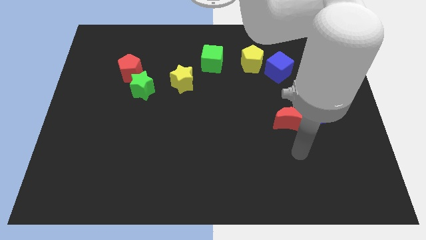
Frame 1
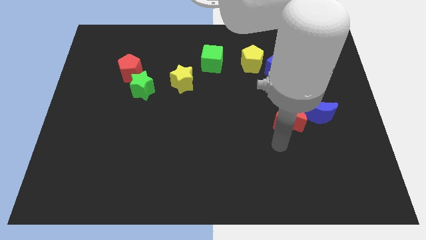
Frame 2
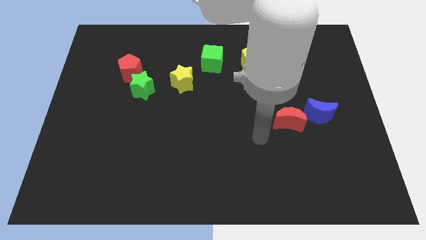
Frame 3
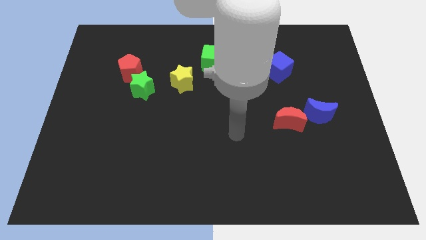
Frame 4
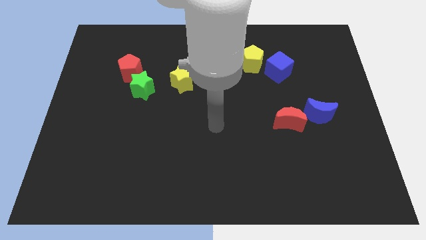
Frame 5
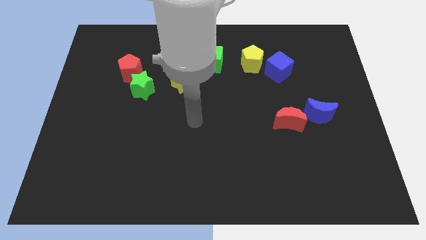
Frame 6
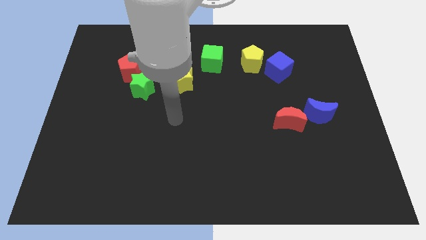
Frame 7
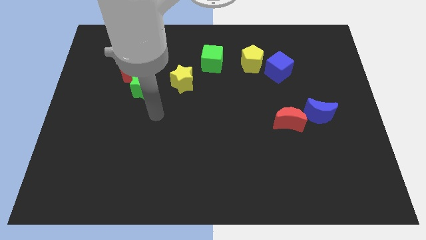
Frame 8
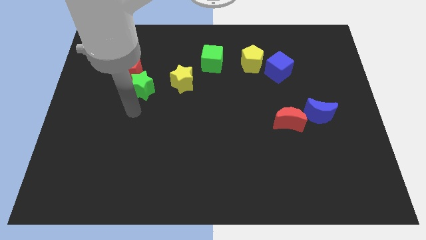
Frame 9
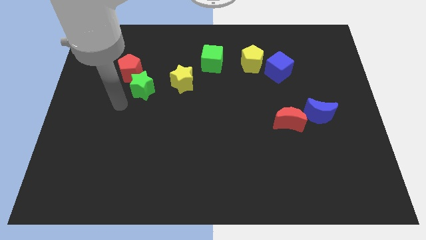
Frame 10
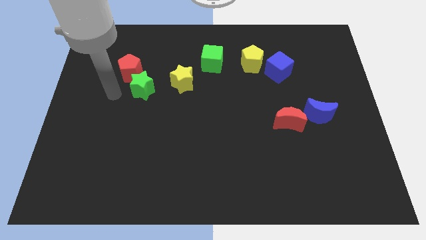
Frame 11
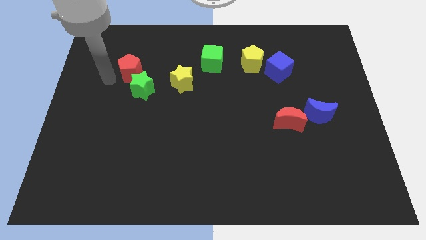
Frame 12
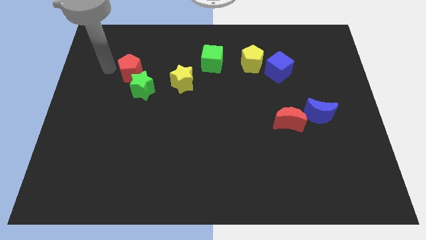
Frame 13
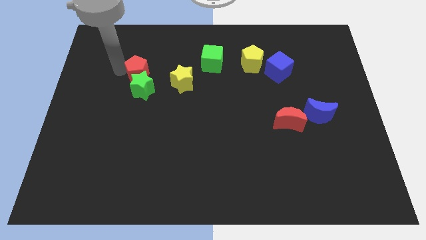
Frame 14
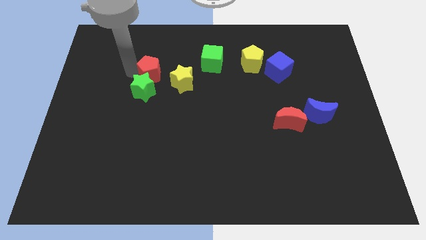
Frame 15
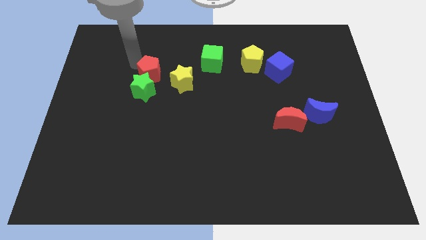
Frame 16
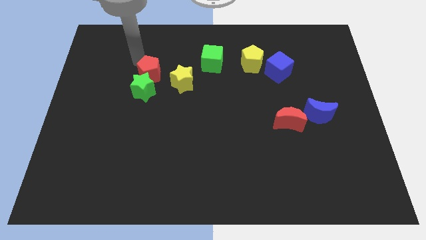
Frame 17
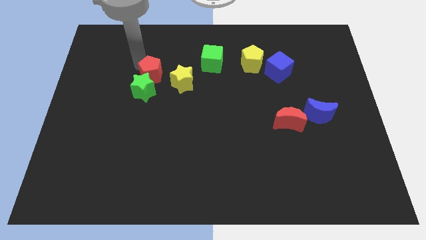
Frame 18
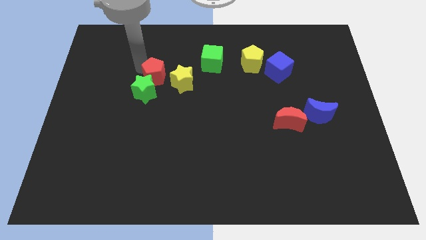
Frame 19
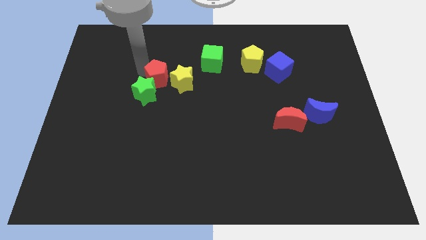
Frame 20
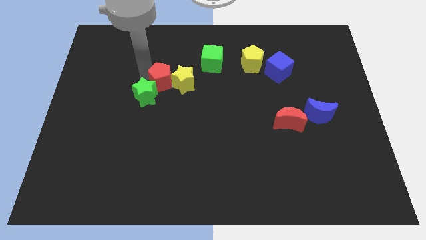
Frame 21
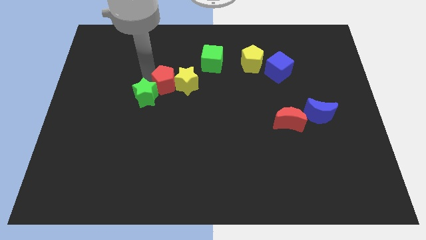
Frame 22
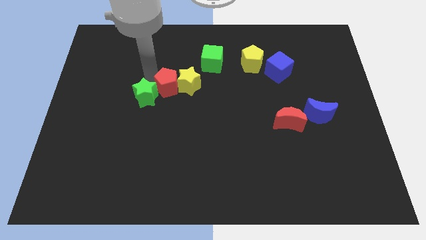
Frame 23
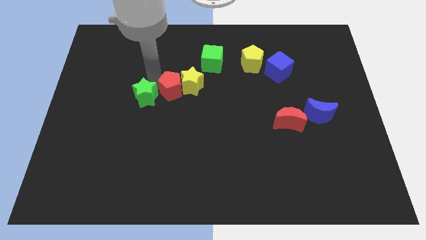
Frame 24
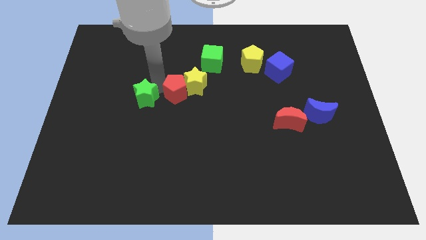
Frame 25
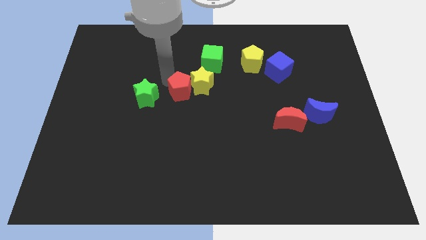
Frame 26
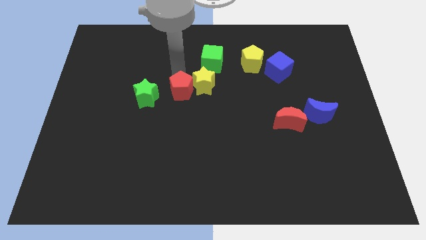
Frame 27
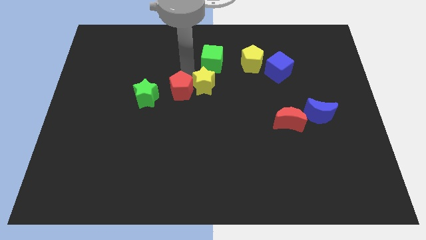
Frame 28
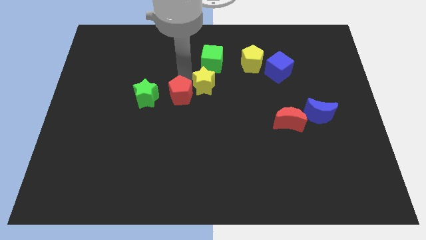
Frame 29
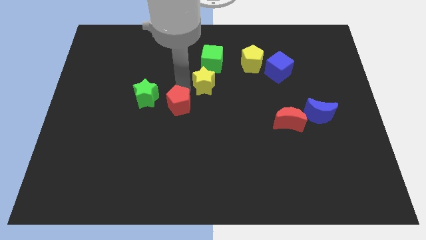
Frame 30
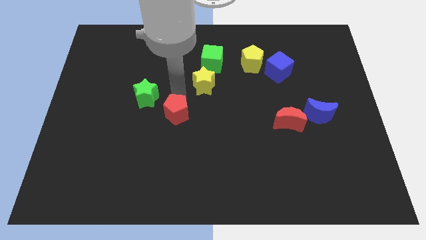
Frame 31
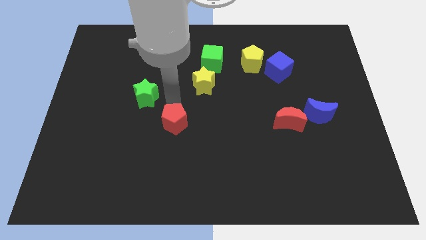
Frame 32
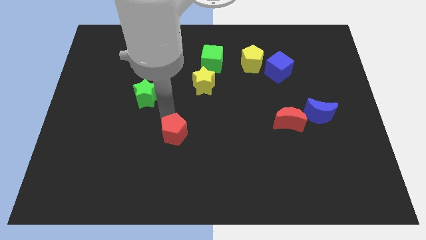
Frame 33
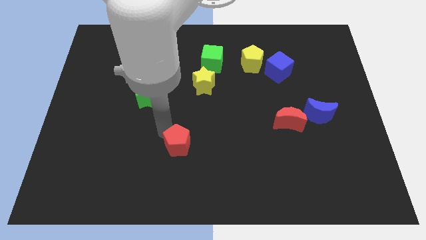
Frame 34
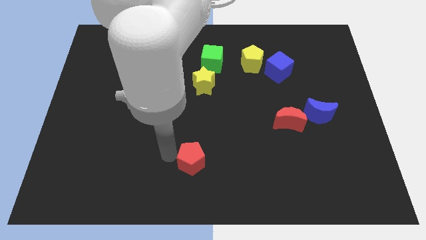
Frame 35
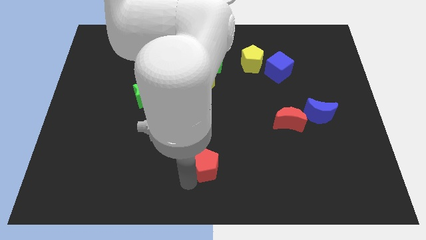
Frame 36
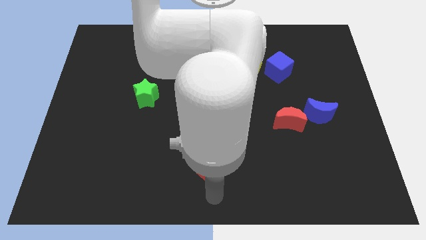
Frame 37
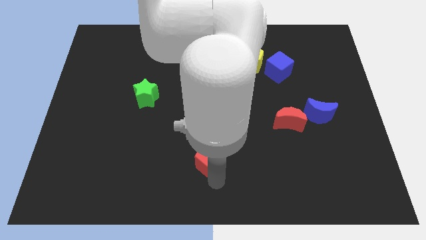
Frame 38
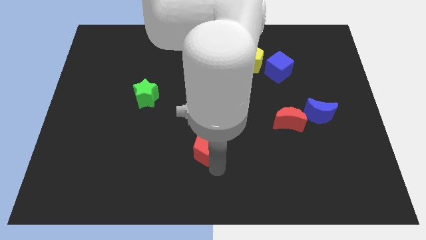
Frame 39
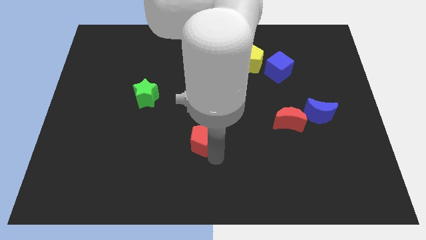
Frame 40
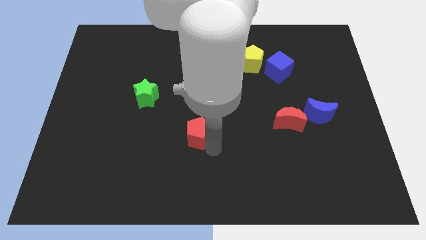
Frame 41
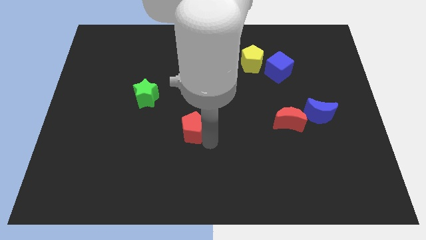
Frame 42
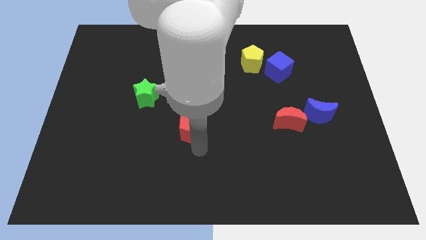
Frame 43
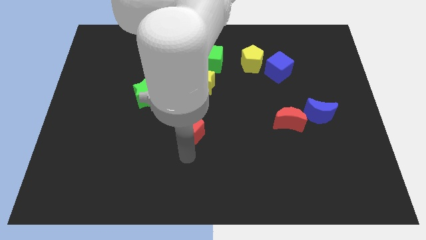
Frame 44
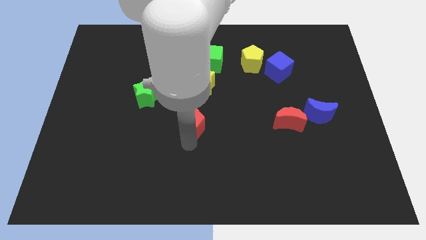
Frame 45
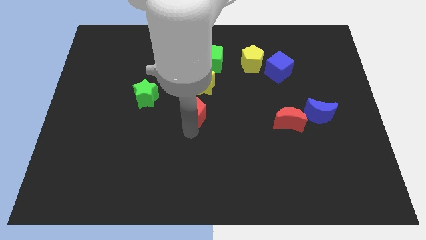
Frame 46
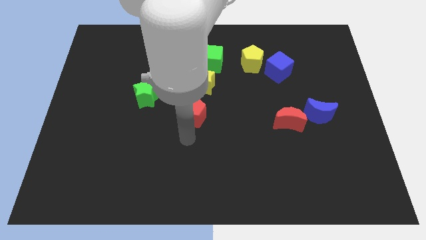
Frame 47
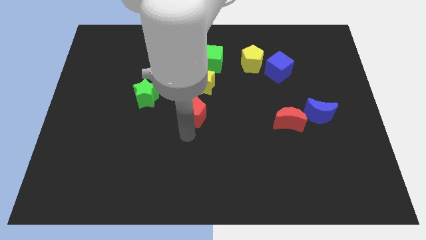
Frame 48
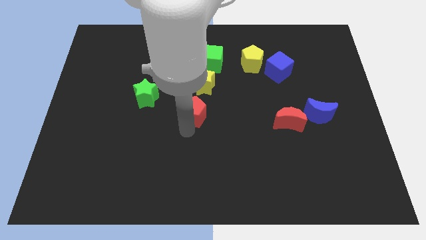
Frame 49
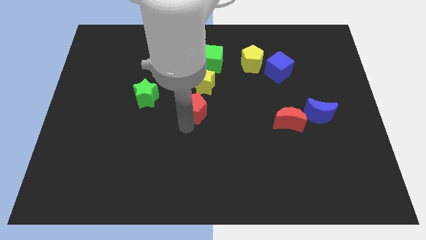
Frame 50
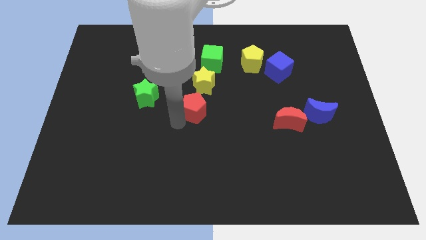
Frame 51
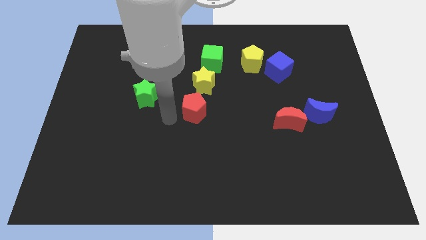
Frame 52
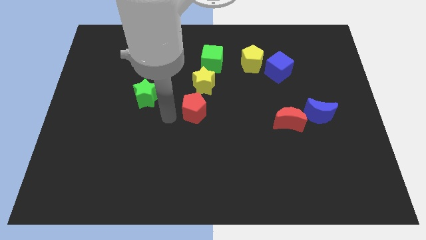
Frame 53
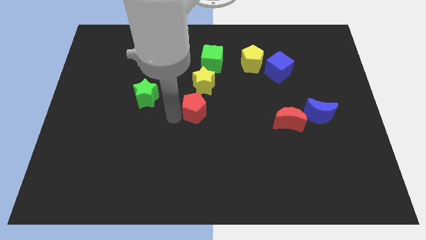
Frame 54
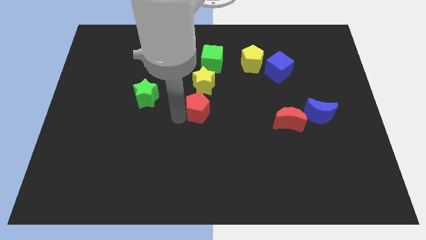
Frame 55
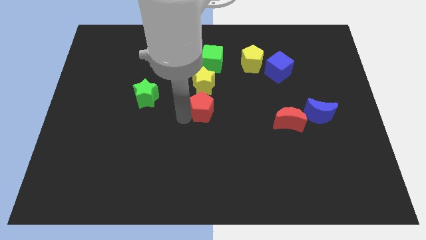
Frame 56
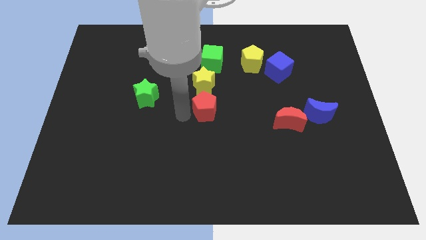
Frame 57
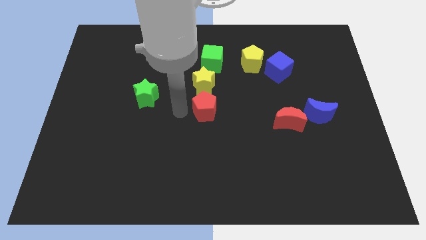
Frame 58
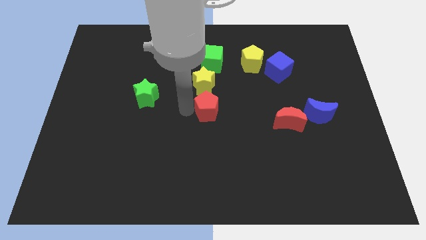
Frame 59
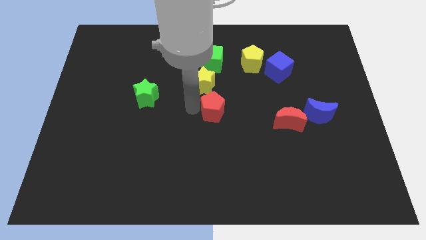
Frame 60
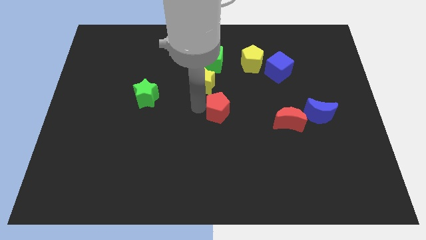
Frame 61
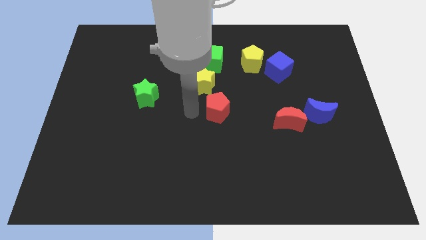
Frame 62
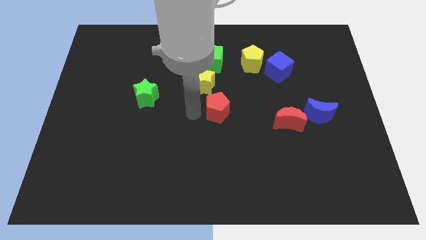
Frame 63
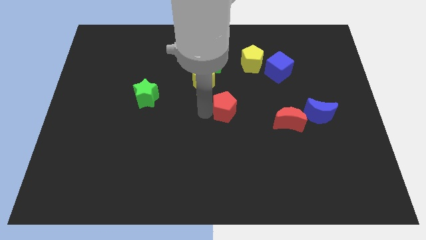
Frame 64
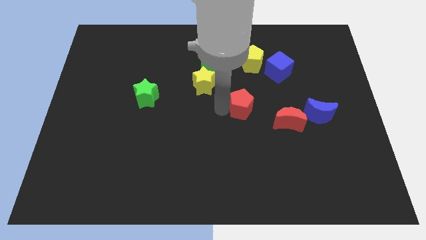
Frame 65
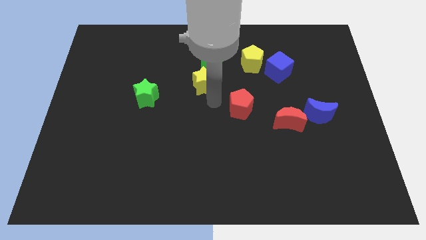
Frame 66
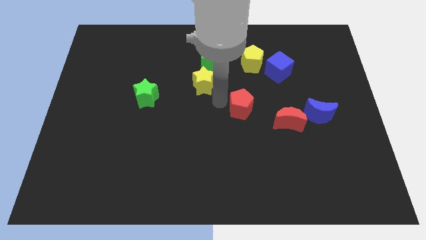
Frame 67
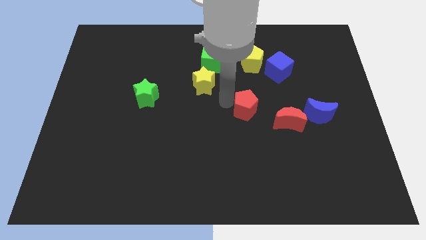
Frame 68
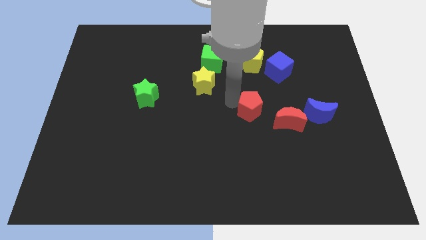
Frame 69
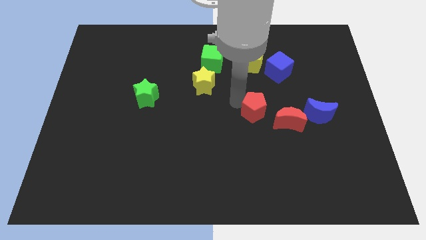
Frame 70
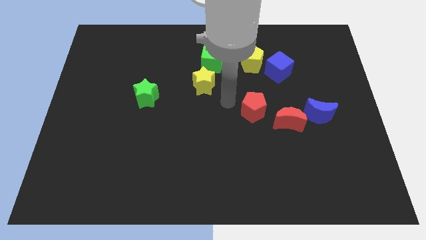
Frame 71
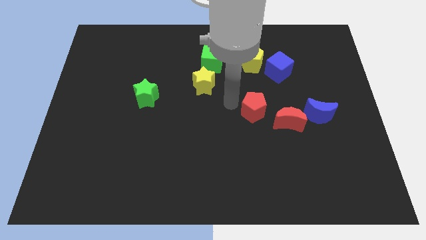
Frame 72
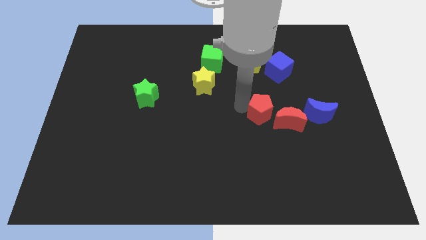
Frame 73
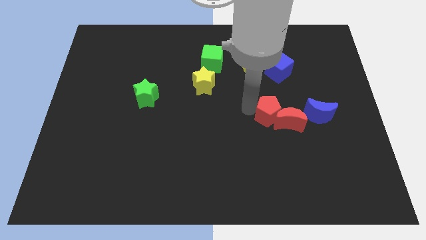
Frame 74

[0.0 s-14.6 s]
push the red pentagon towards the red moon
